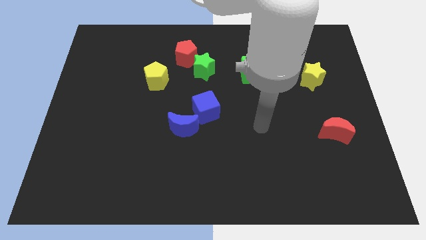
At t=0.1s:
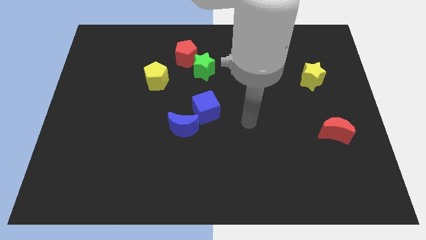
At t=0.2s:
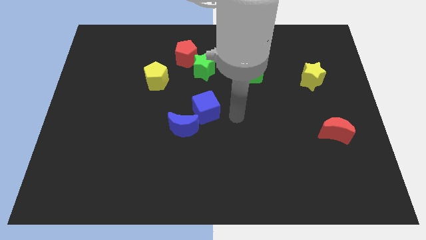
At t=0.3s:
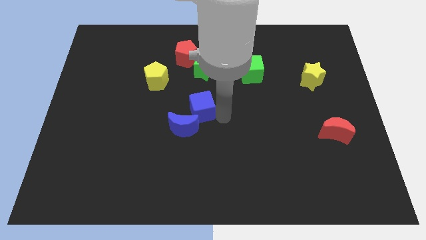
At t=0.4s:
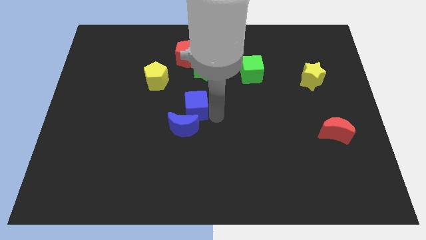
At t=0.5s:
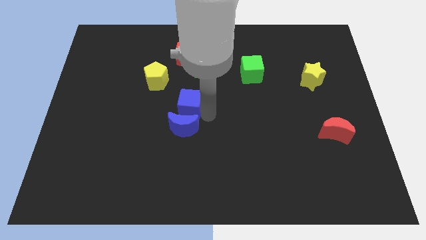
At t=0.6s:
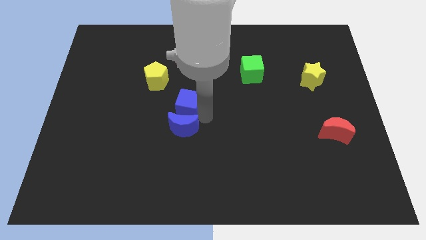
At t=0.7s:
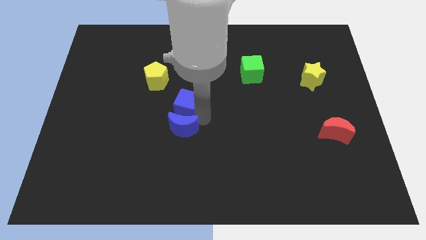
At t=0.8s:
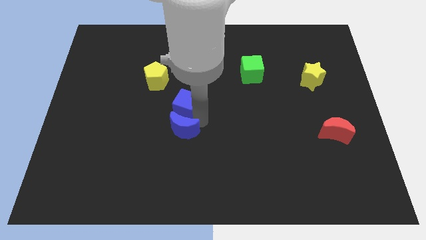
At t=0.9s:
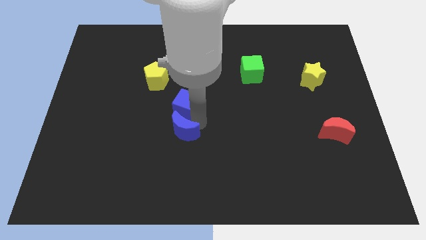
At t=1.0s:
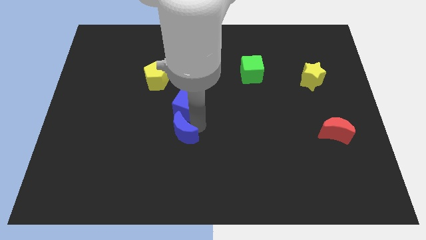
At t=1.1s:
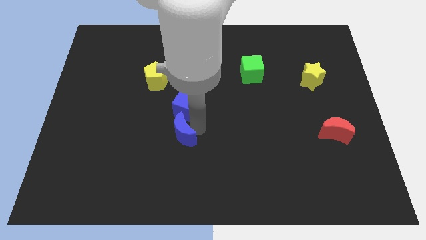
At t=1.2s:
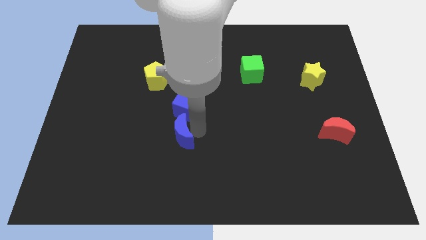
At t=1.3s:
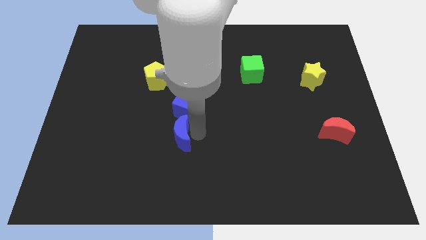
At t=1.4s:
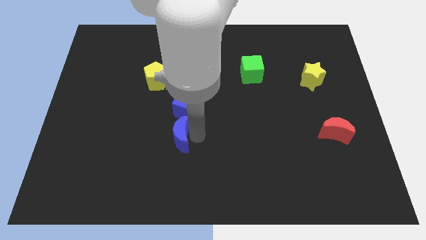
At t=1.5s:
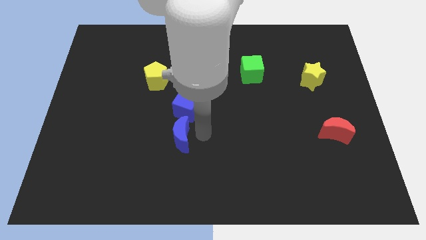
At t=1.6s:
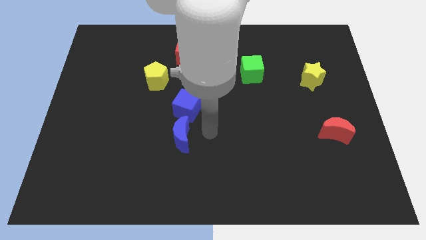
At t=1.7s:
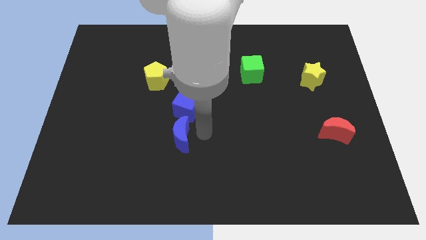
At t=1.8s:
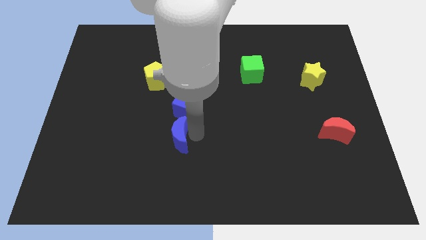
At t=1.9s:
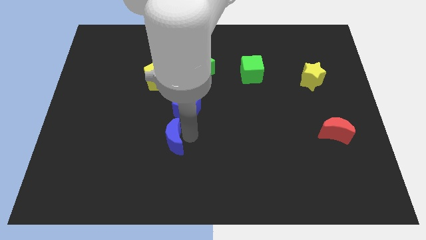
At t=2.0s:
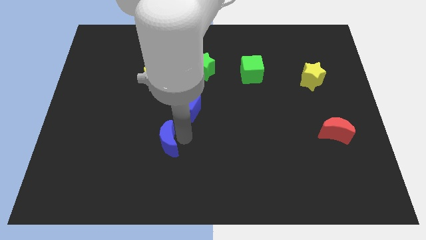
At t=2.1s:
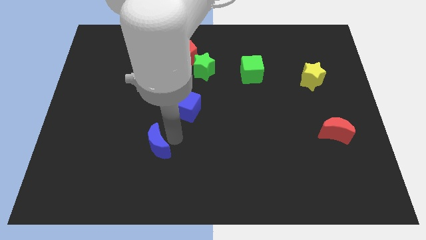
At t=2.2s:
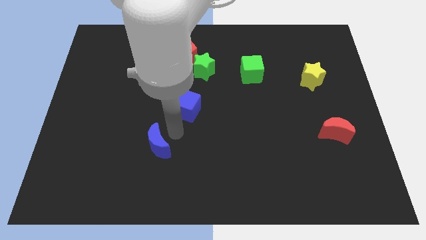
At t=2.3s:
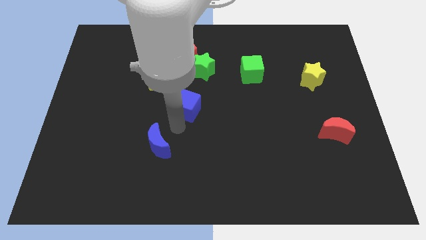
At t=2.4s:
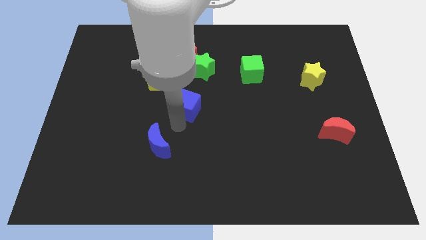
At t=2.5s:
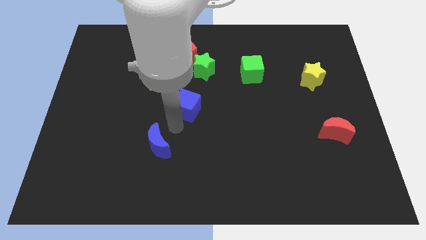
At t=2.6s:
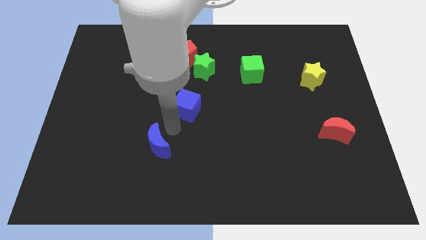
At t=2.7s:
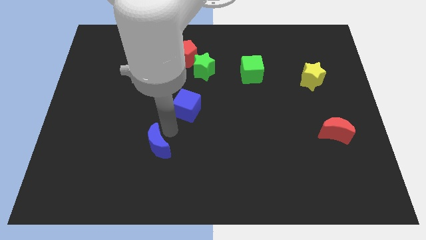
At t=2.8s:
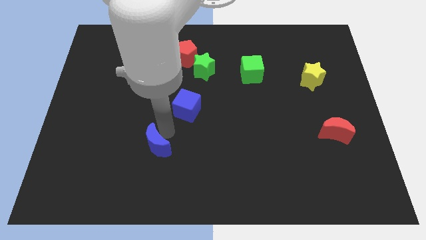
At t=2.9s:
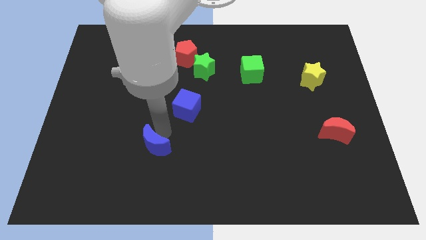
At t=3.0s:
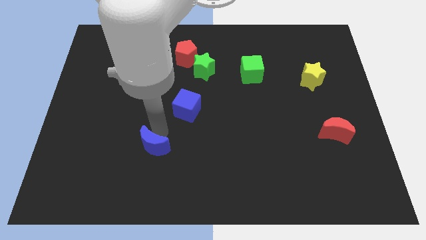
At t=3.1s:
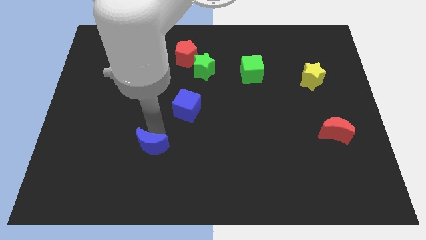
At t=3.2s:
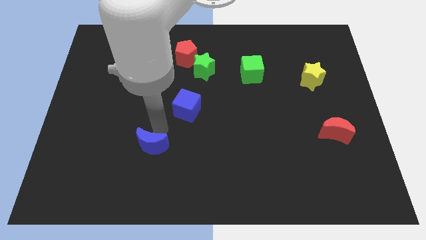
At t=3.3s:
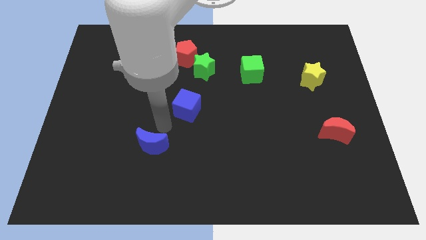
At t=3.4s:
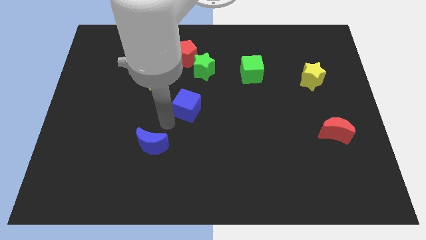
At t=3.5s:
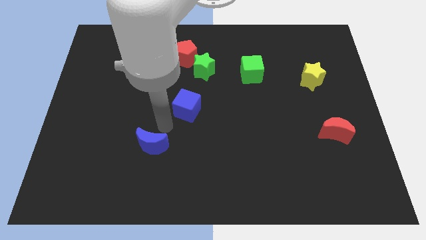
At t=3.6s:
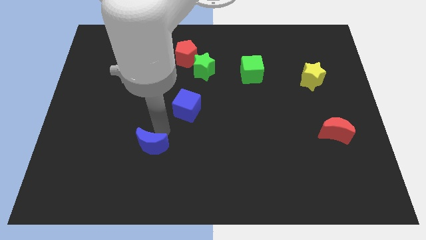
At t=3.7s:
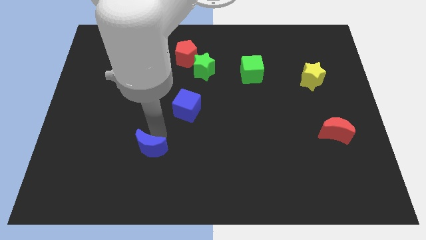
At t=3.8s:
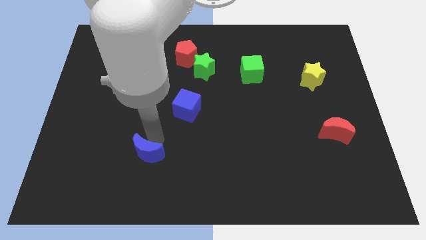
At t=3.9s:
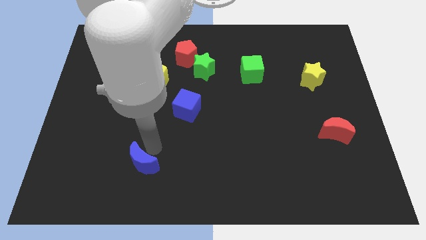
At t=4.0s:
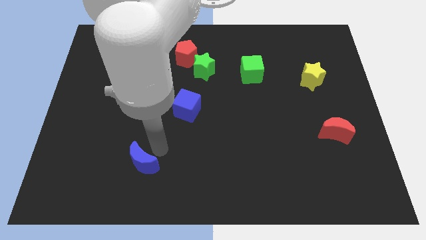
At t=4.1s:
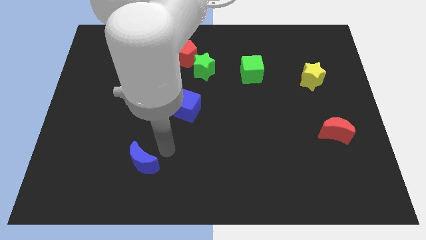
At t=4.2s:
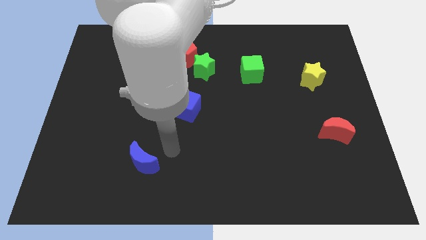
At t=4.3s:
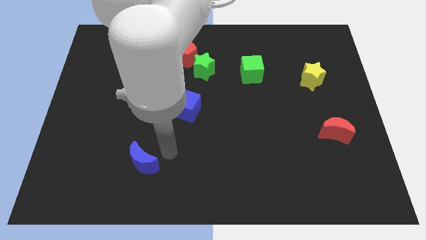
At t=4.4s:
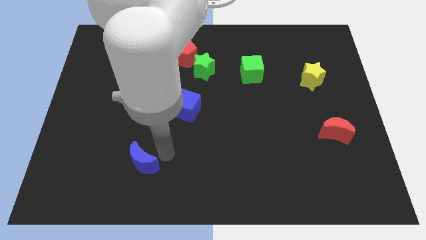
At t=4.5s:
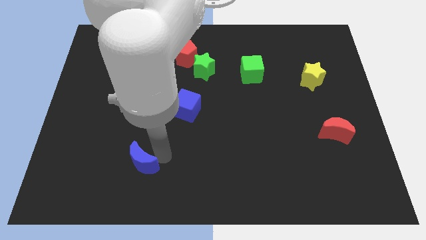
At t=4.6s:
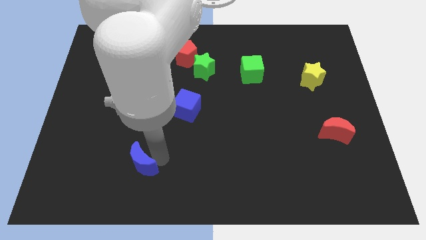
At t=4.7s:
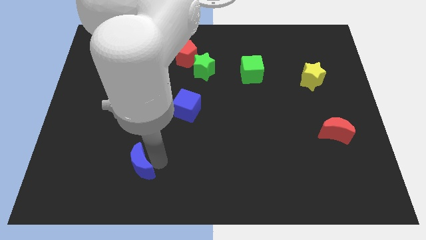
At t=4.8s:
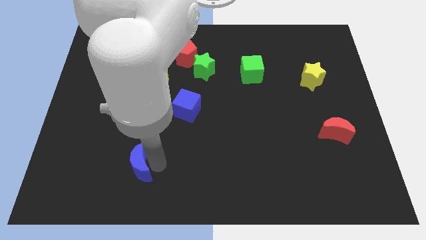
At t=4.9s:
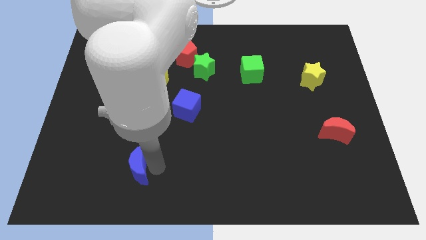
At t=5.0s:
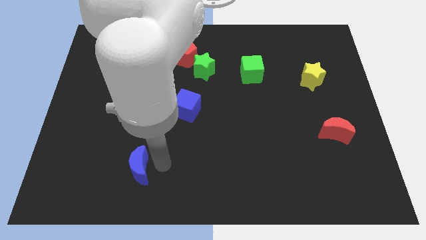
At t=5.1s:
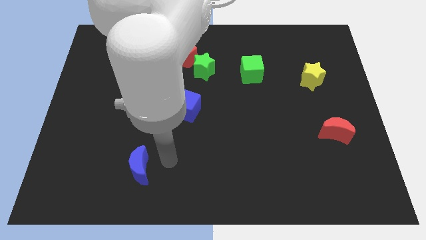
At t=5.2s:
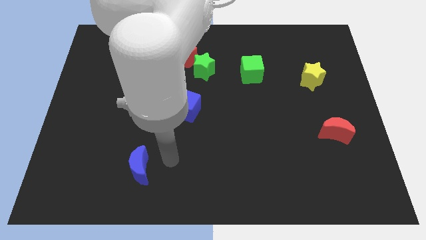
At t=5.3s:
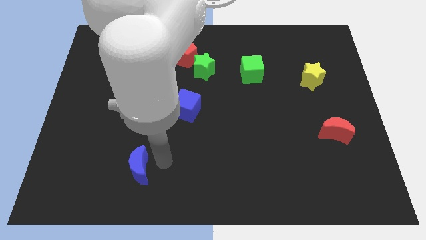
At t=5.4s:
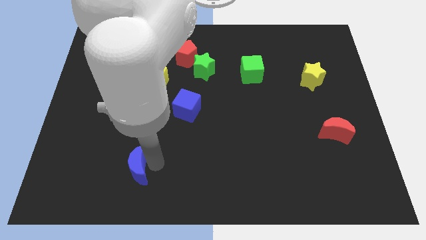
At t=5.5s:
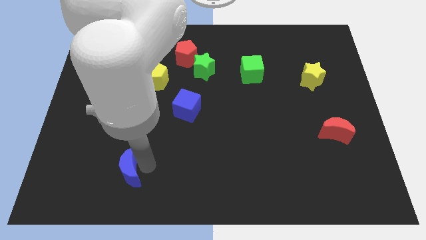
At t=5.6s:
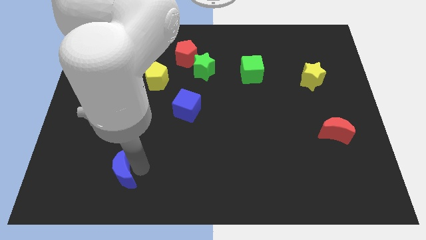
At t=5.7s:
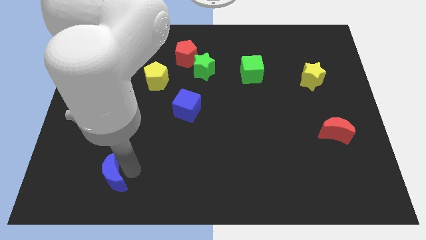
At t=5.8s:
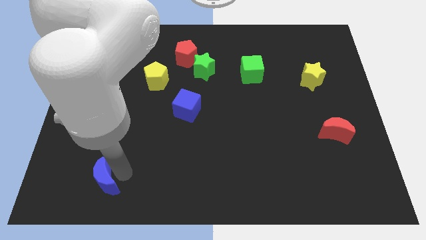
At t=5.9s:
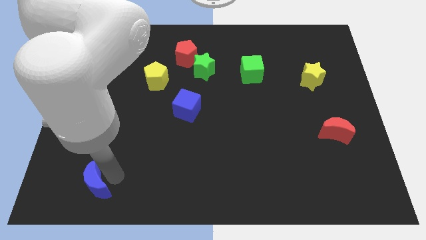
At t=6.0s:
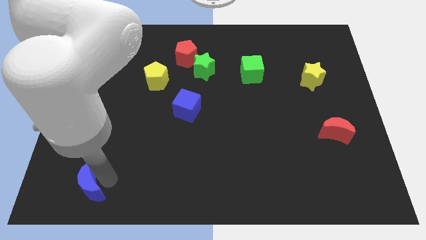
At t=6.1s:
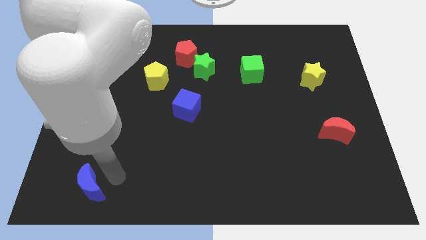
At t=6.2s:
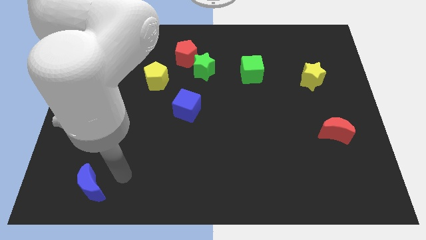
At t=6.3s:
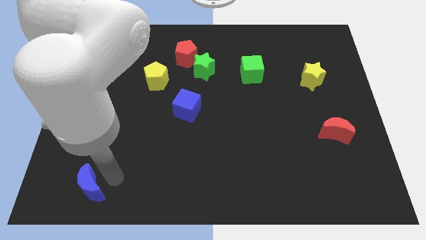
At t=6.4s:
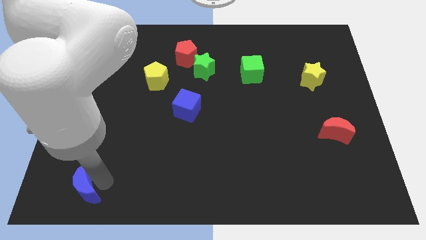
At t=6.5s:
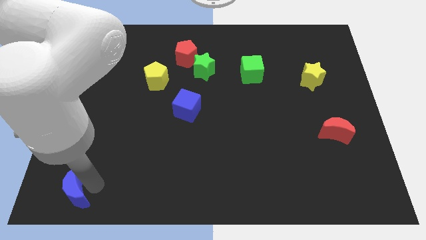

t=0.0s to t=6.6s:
slide the blue moon to the bottom left of the board

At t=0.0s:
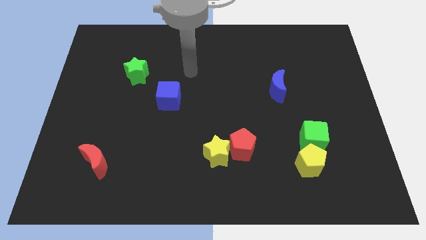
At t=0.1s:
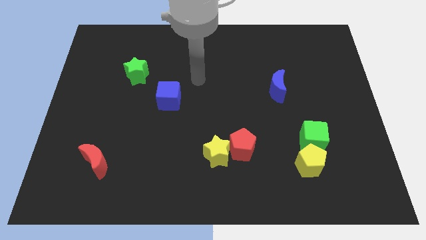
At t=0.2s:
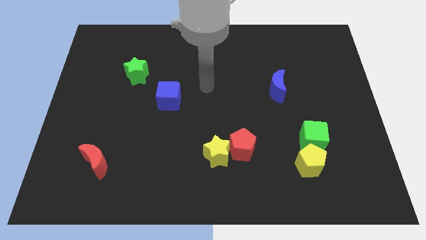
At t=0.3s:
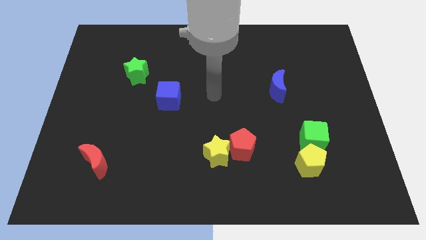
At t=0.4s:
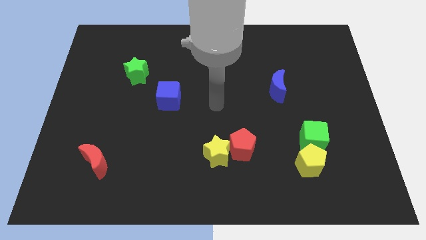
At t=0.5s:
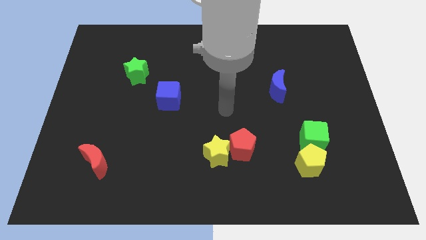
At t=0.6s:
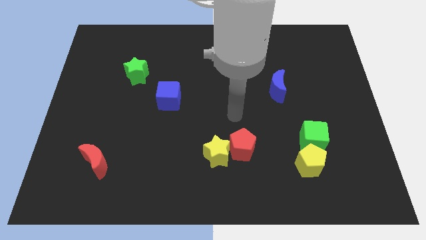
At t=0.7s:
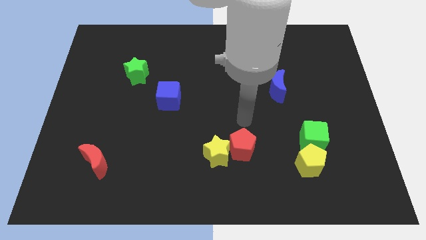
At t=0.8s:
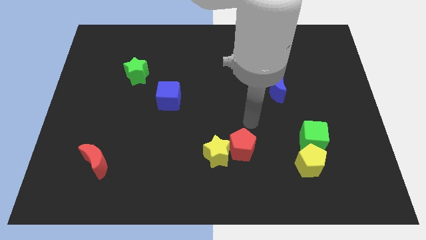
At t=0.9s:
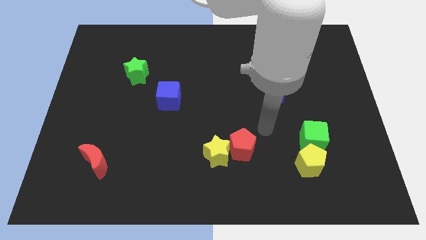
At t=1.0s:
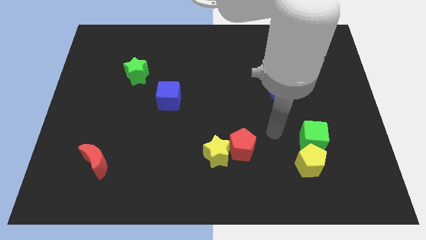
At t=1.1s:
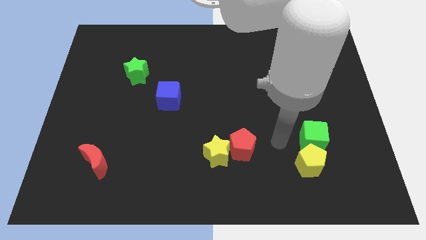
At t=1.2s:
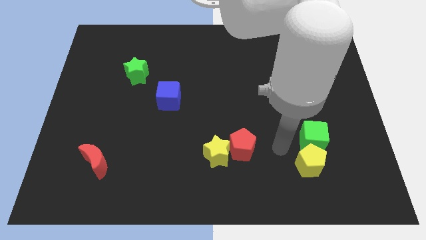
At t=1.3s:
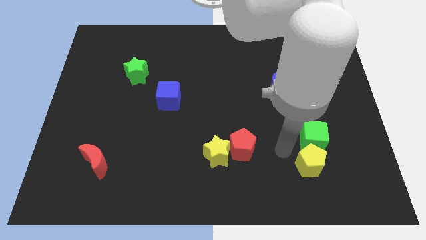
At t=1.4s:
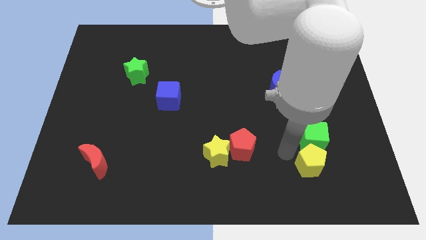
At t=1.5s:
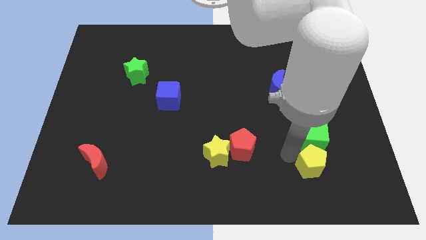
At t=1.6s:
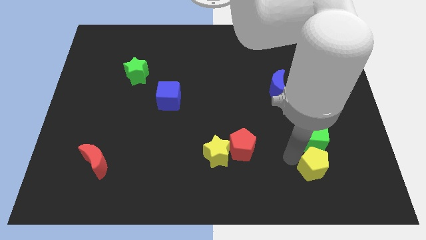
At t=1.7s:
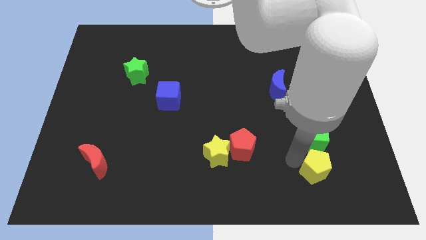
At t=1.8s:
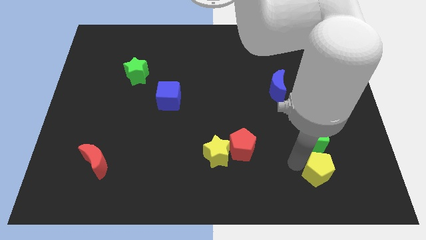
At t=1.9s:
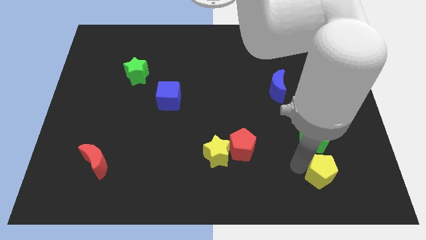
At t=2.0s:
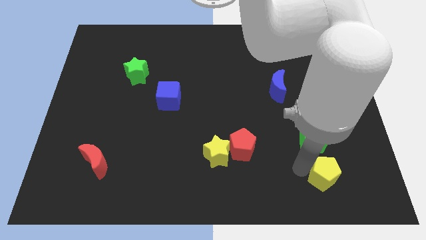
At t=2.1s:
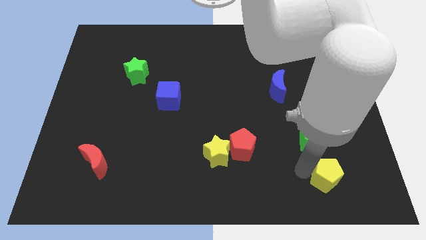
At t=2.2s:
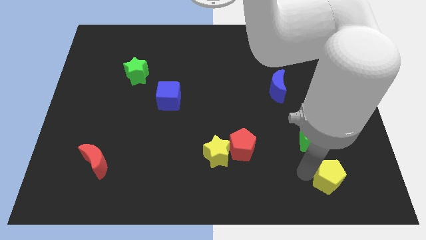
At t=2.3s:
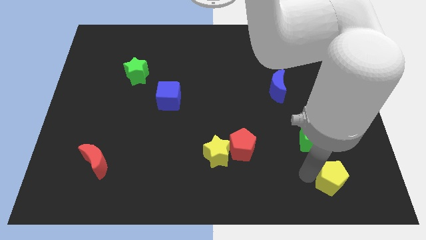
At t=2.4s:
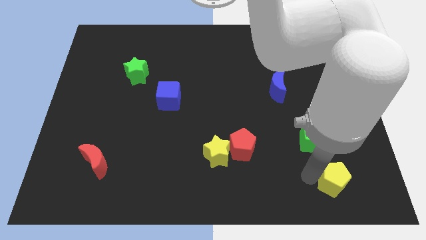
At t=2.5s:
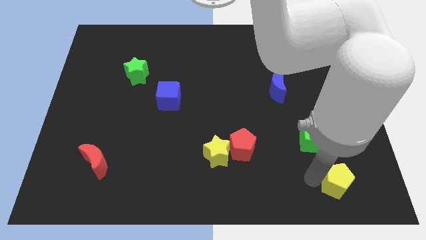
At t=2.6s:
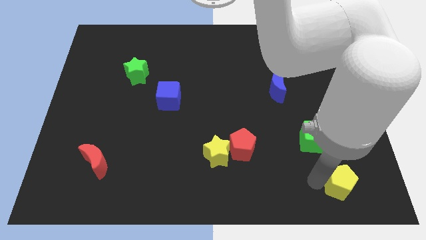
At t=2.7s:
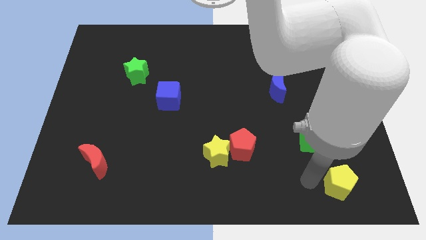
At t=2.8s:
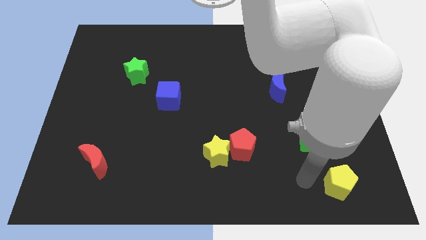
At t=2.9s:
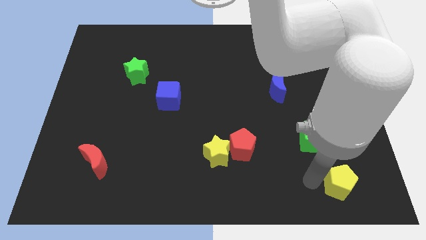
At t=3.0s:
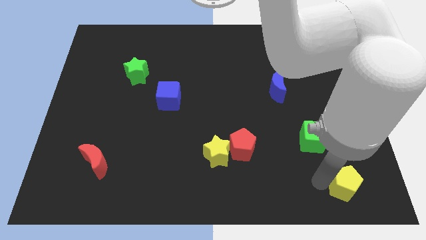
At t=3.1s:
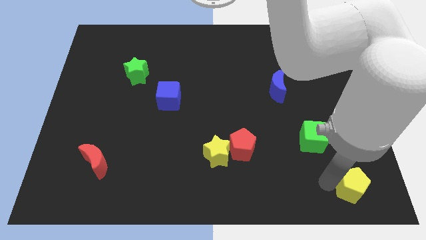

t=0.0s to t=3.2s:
put the yellow pentagon to the bottom right
